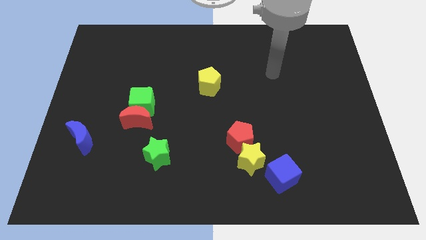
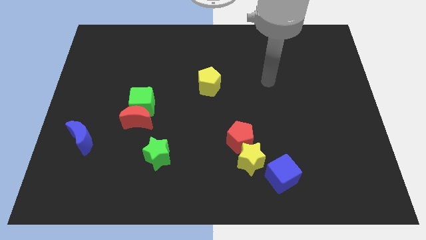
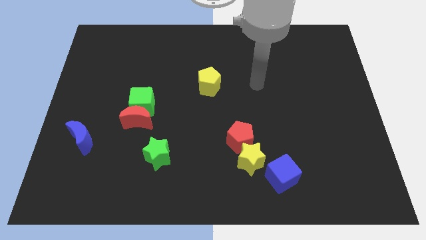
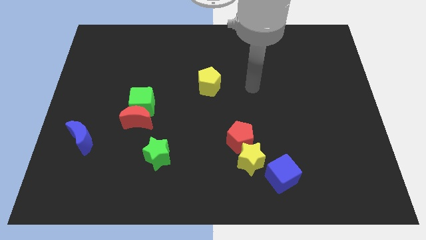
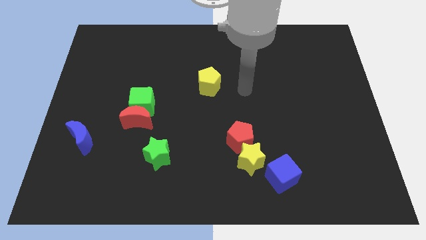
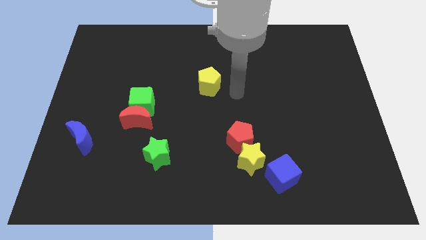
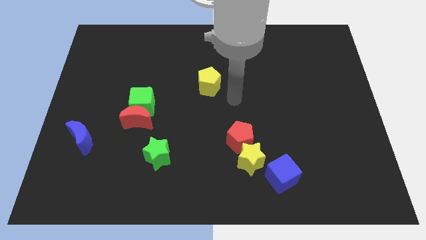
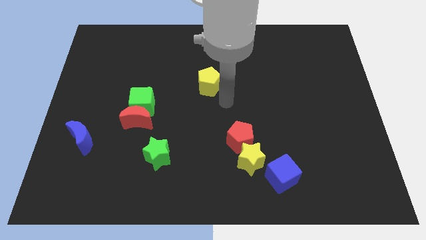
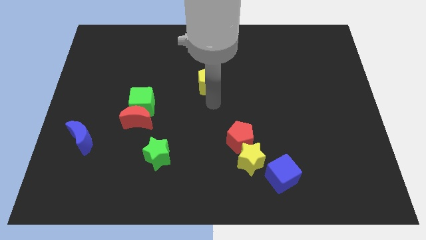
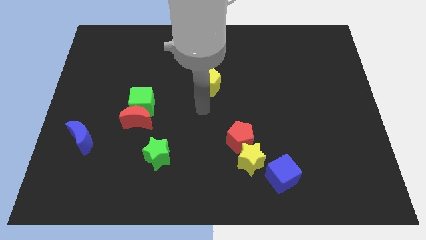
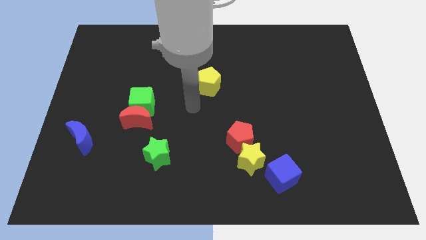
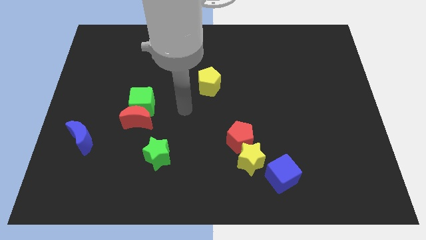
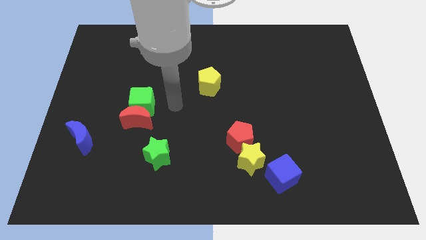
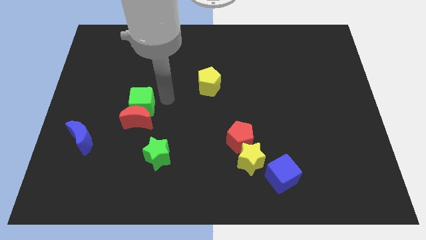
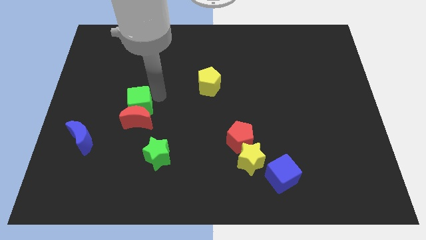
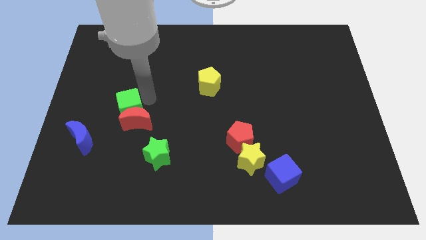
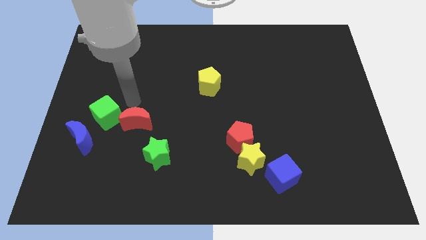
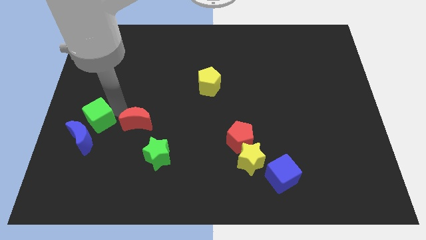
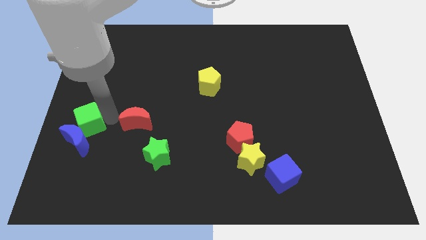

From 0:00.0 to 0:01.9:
separate the red moon from the green cube

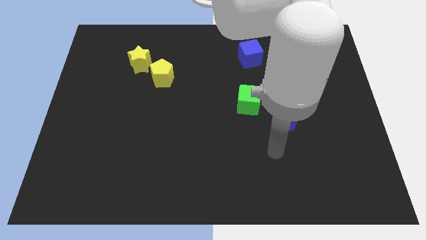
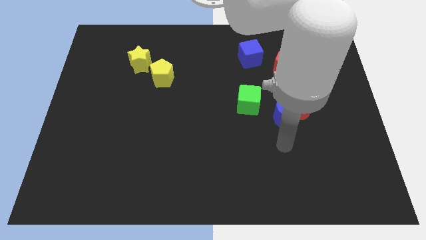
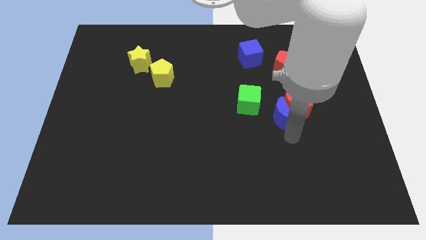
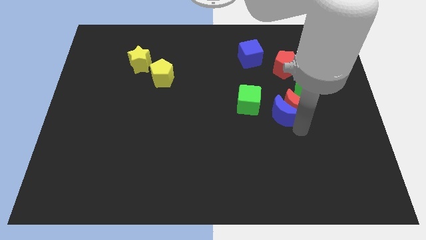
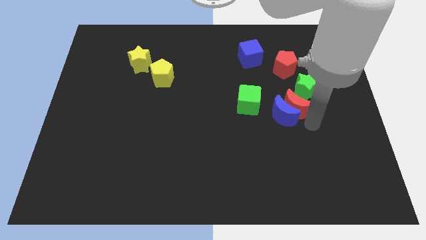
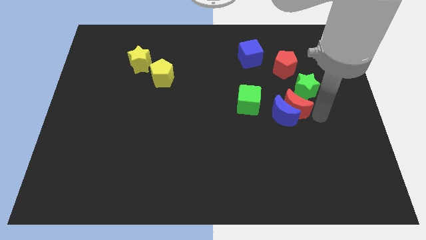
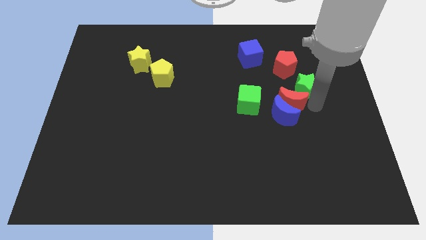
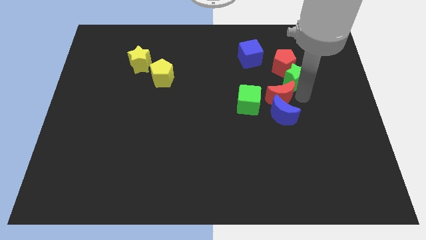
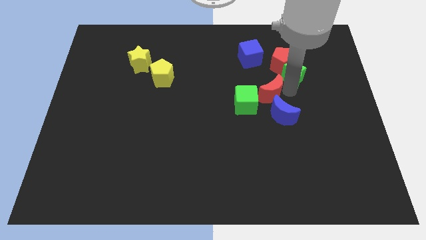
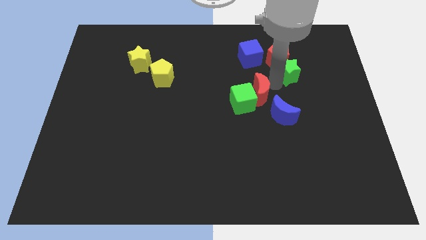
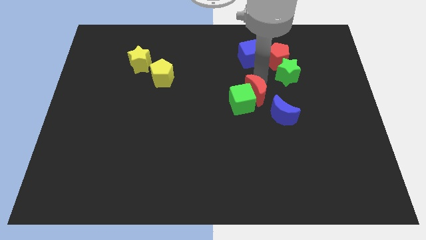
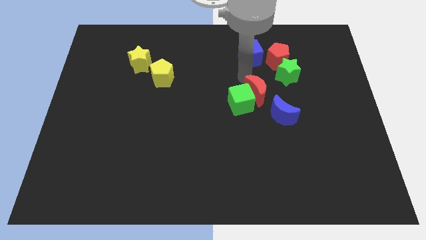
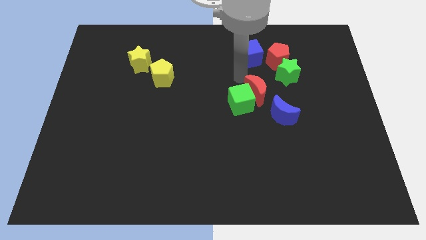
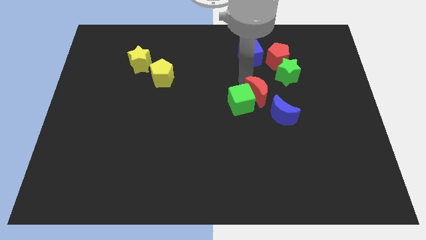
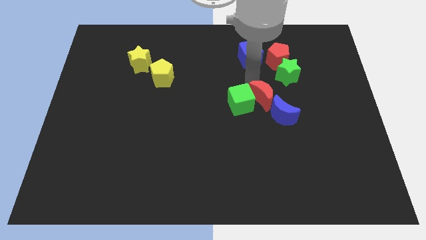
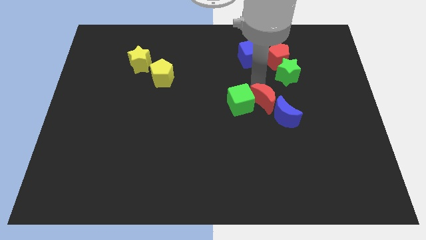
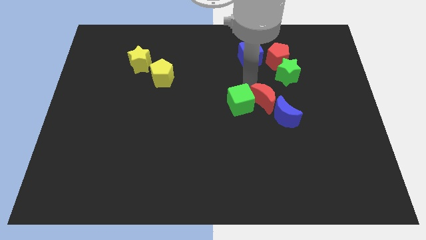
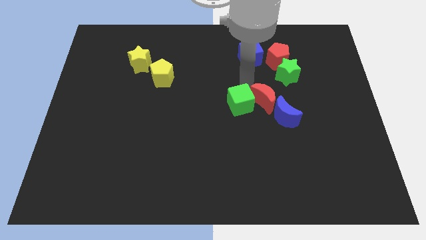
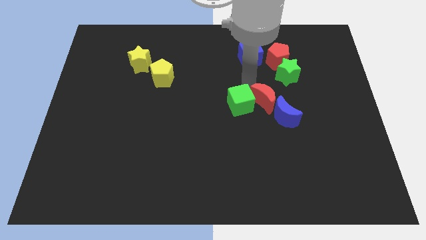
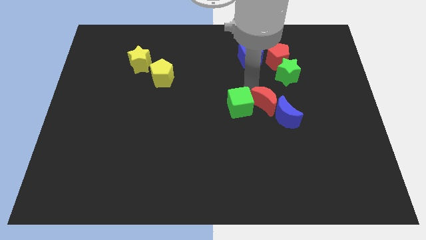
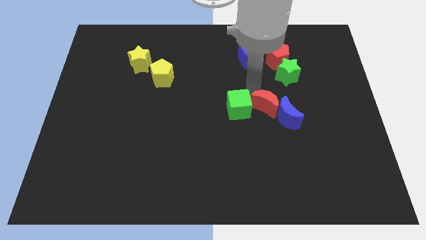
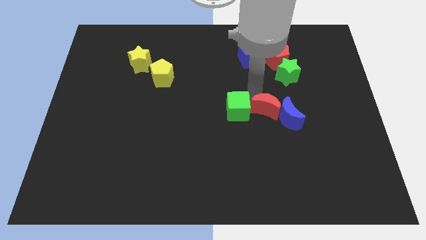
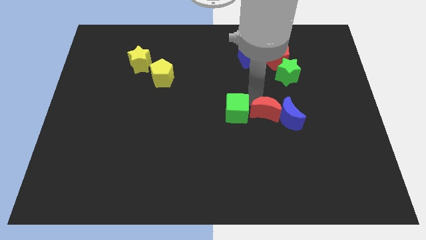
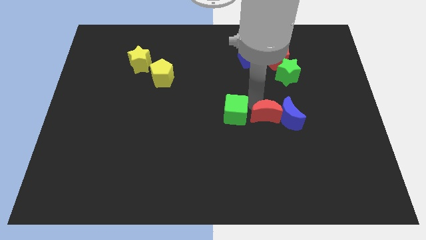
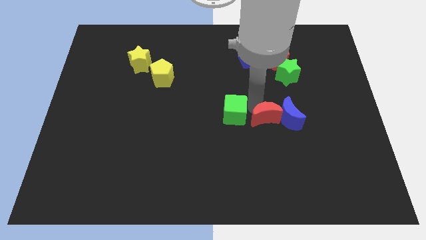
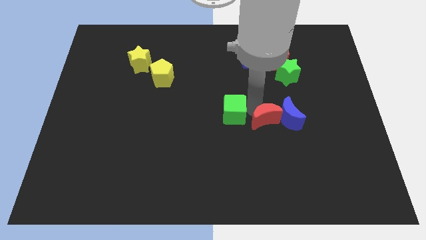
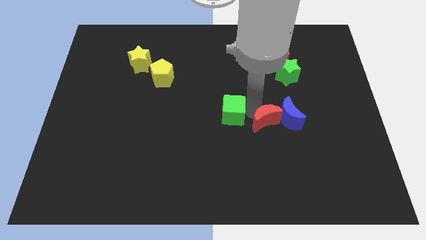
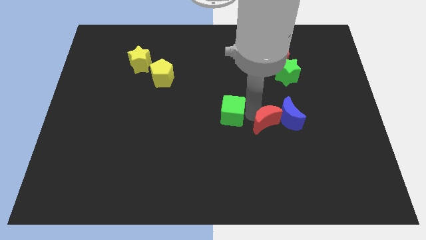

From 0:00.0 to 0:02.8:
move the red moon away from the blue moon and green star

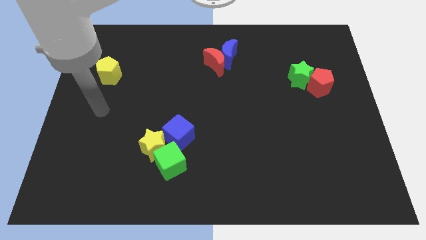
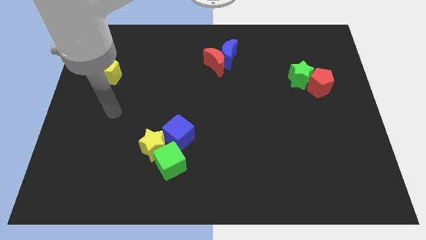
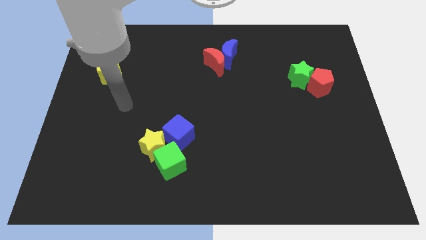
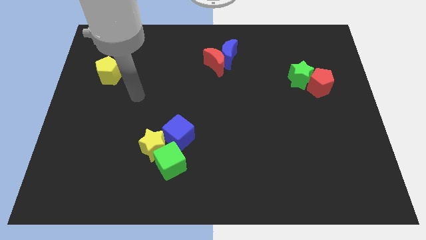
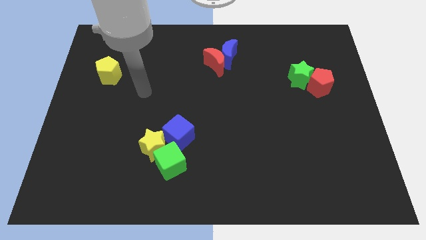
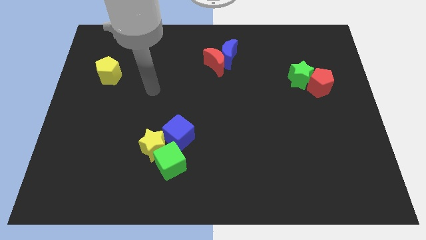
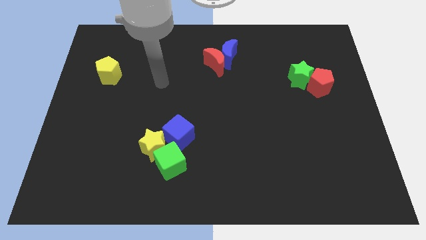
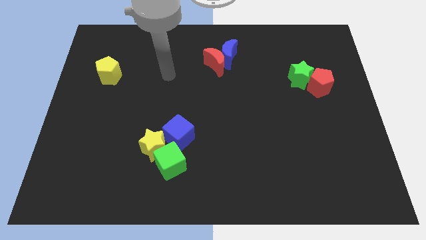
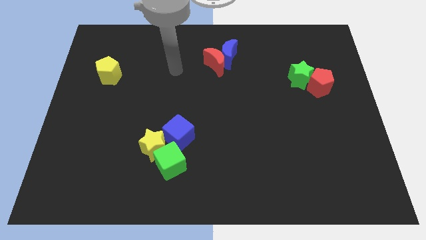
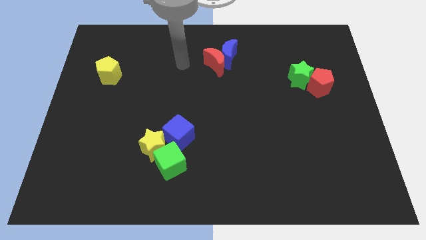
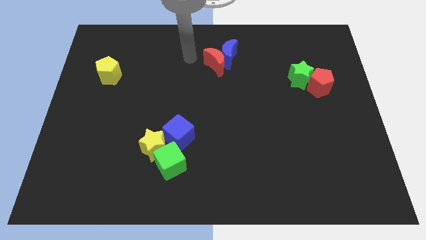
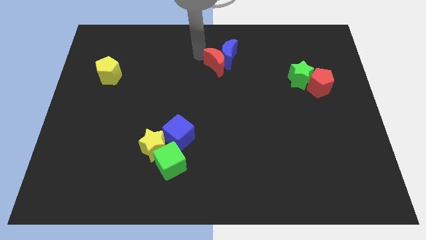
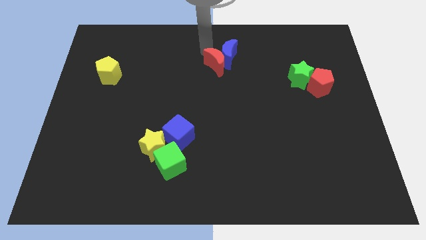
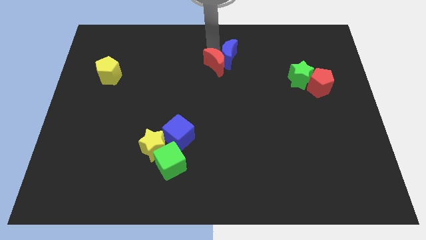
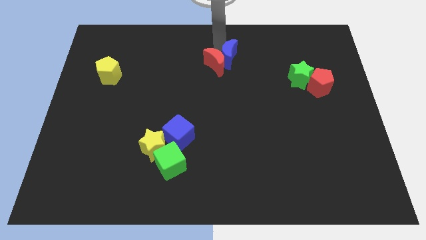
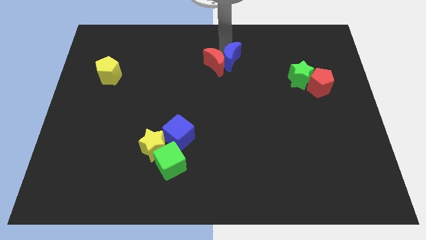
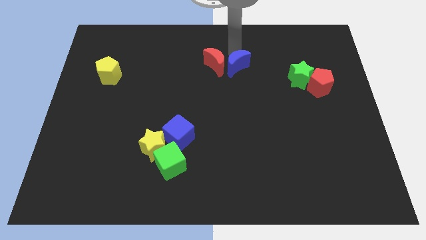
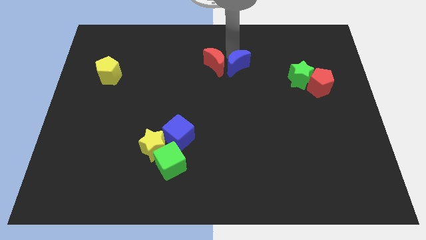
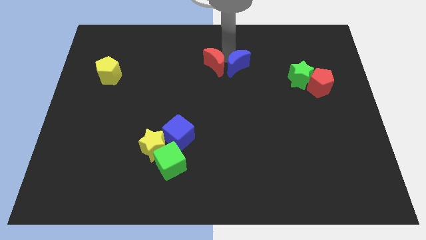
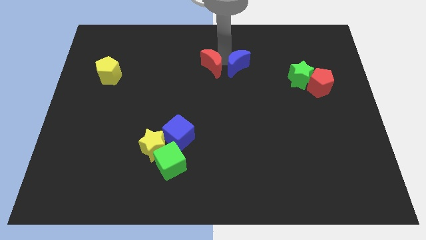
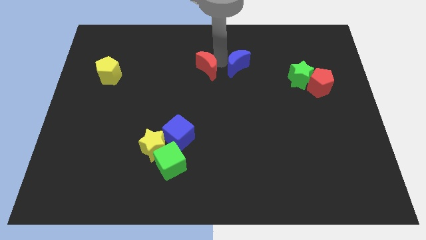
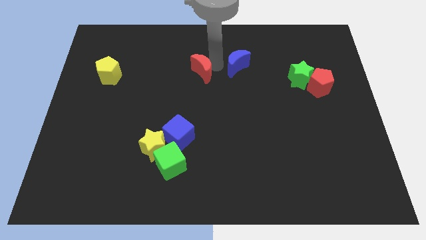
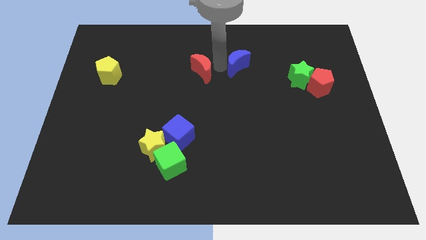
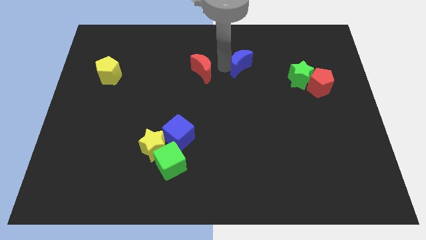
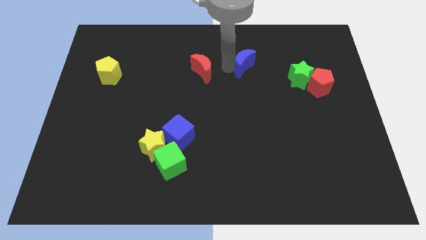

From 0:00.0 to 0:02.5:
separate the red moon from the blue moon

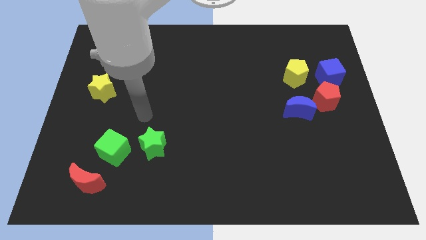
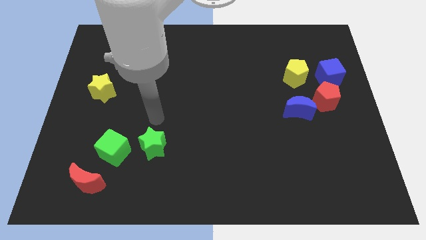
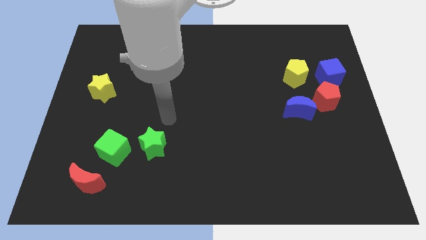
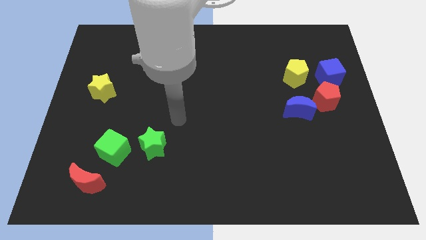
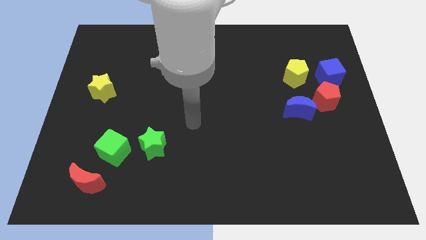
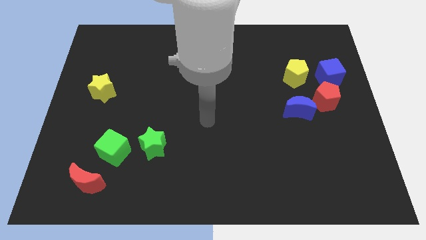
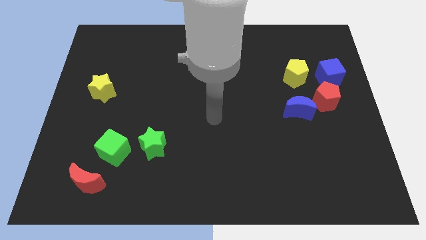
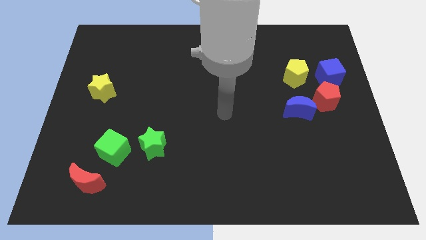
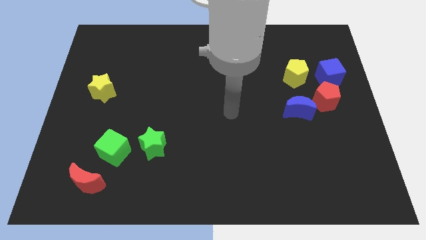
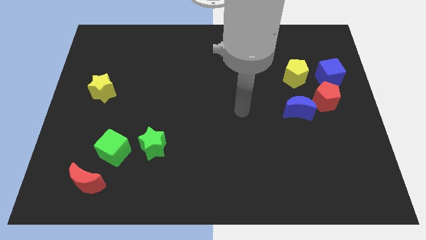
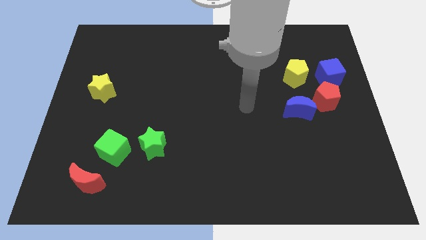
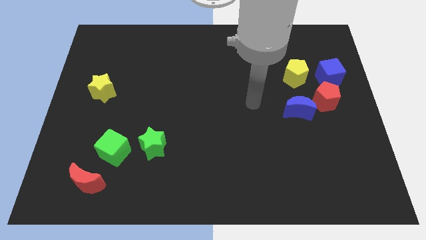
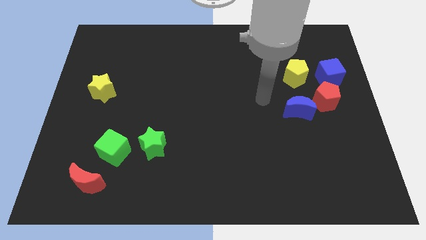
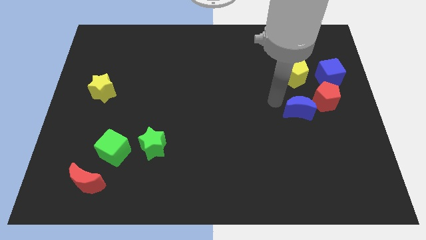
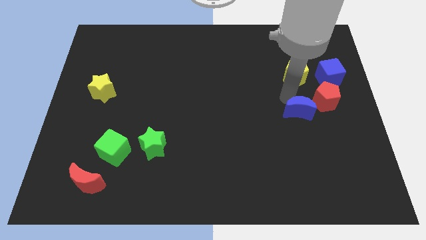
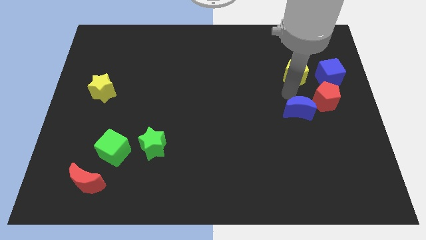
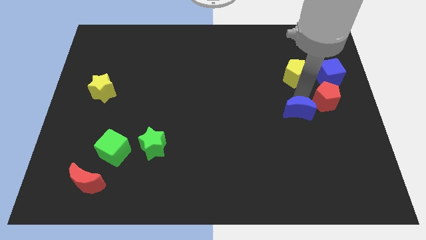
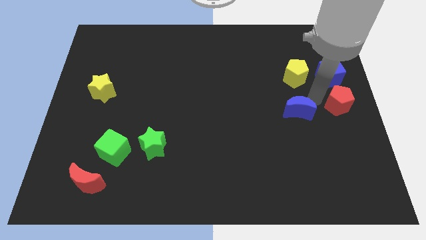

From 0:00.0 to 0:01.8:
separate the blue moon from the red pentagon

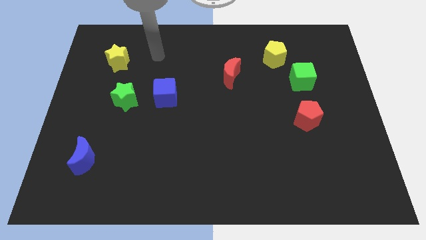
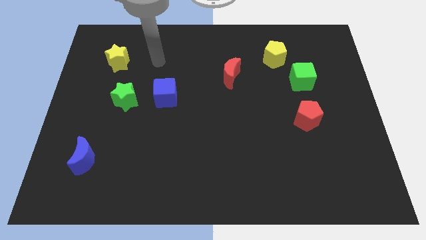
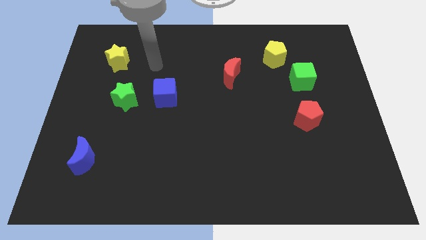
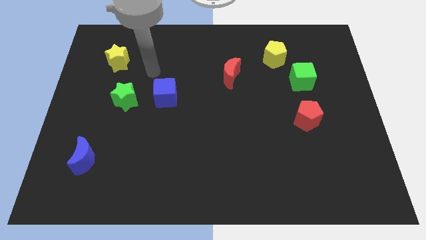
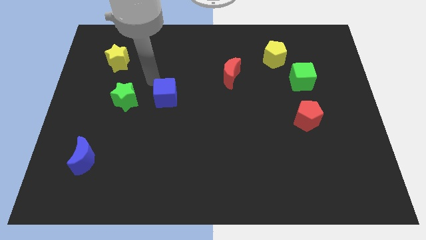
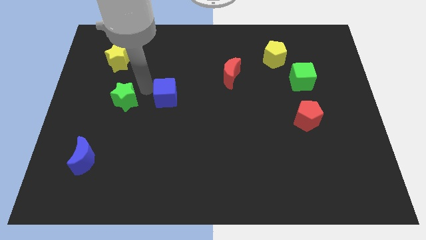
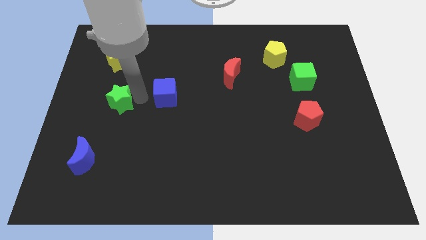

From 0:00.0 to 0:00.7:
pull the blue cube apart from the green star
